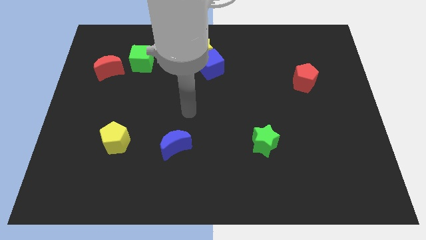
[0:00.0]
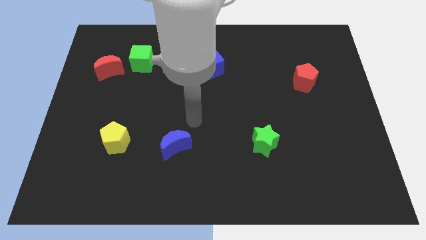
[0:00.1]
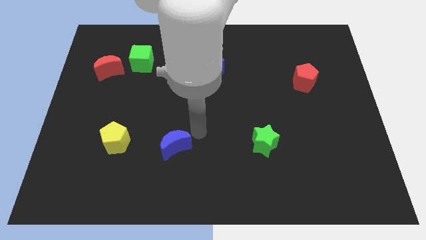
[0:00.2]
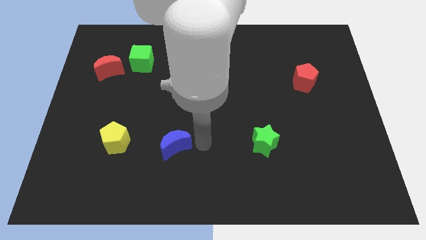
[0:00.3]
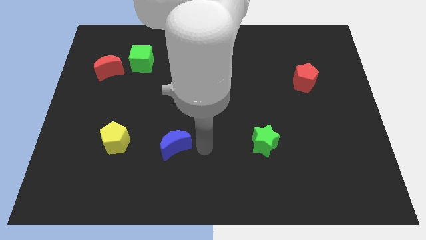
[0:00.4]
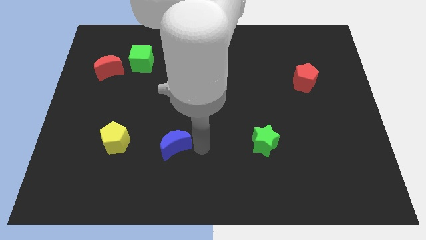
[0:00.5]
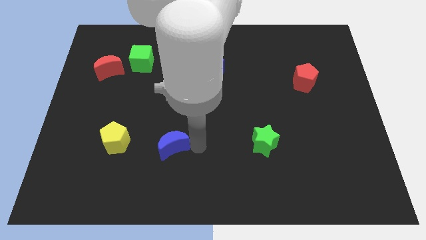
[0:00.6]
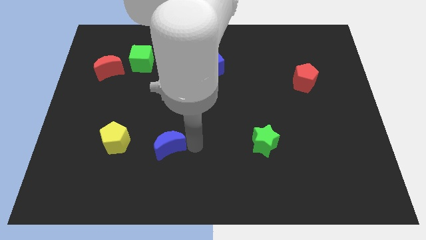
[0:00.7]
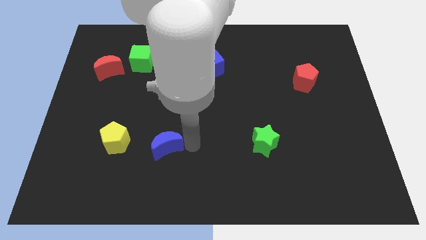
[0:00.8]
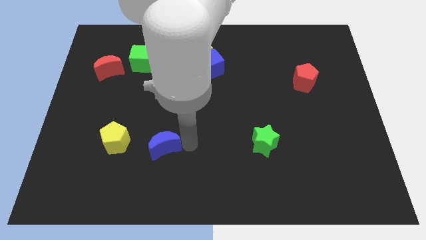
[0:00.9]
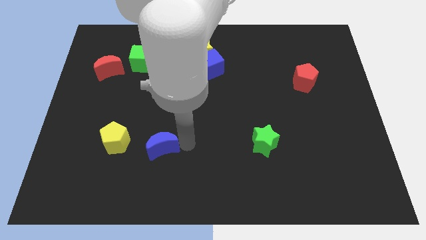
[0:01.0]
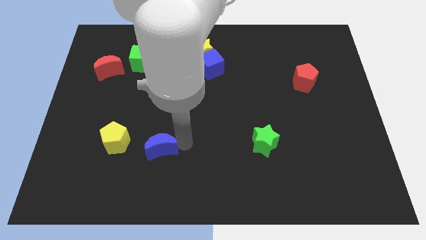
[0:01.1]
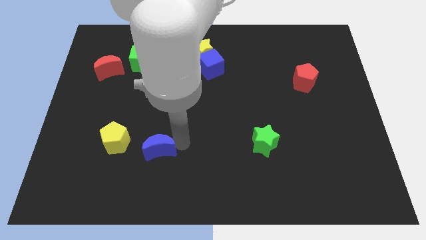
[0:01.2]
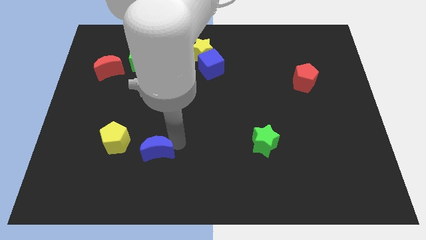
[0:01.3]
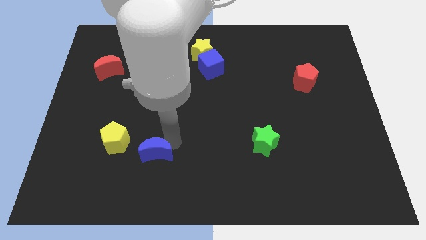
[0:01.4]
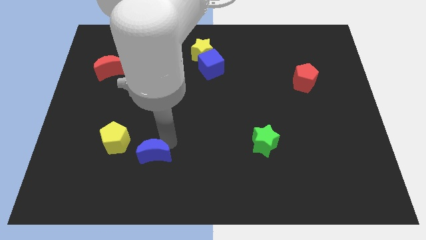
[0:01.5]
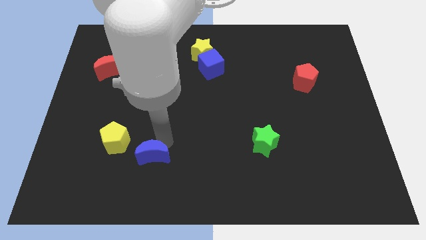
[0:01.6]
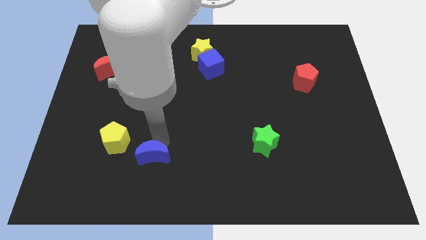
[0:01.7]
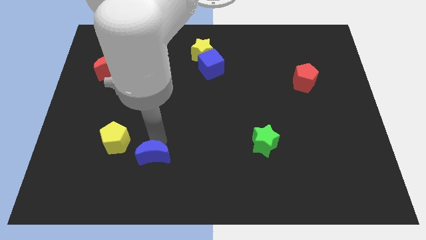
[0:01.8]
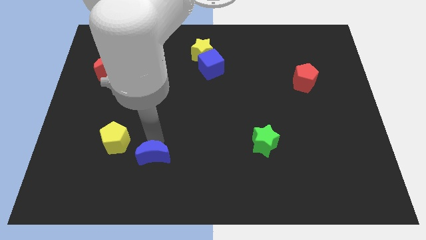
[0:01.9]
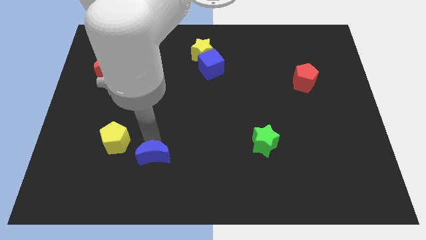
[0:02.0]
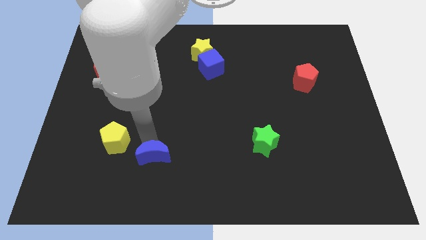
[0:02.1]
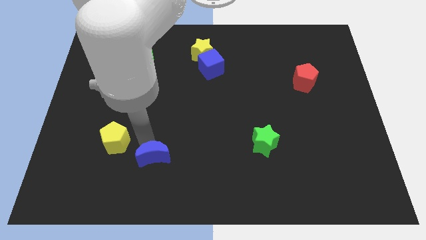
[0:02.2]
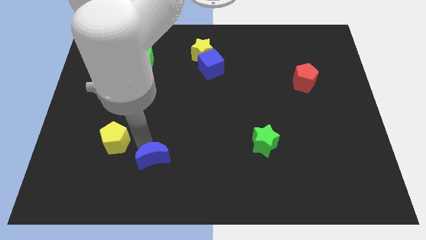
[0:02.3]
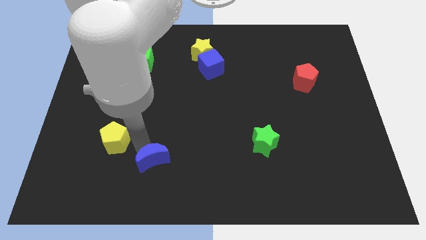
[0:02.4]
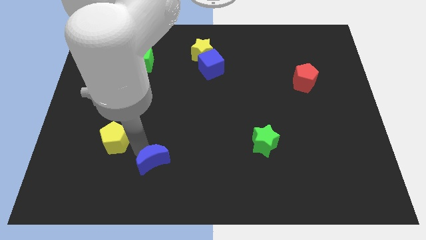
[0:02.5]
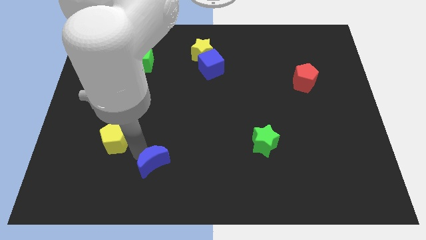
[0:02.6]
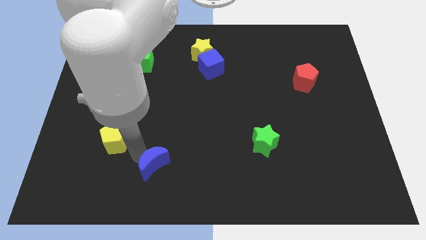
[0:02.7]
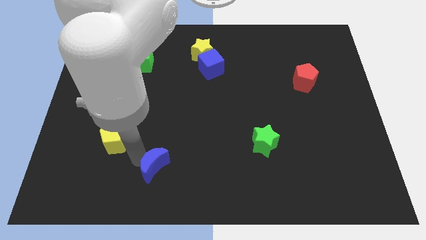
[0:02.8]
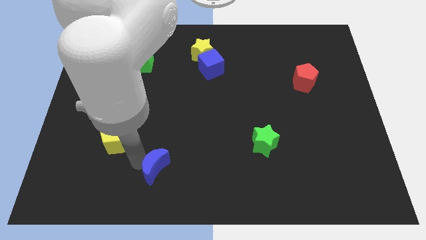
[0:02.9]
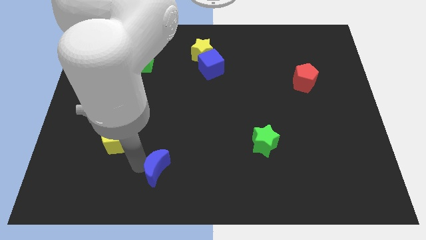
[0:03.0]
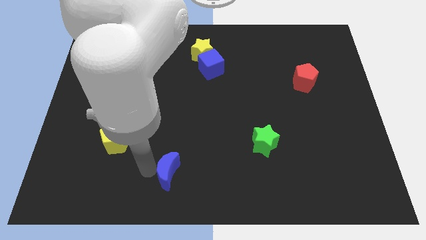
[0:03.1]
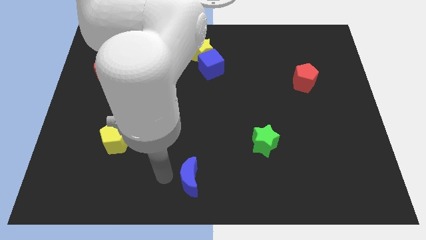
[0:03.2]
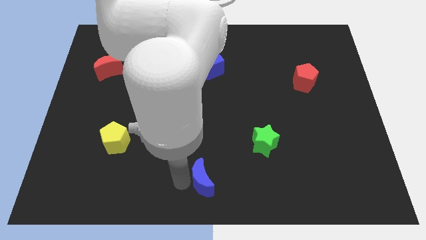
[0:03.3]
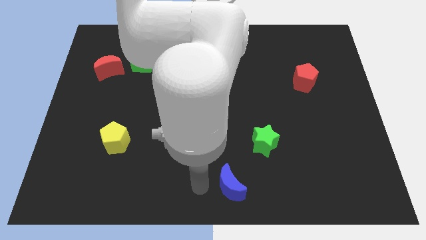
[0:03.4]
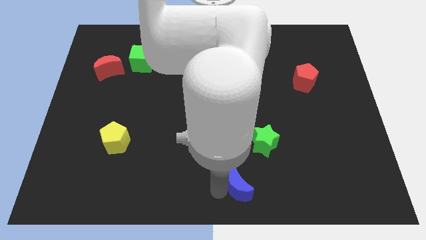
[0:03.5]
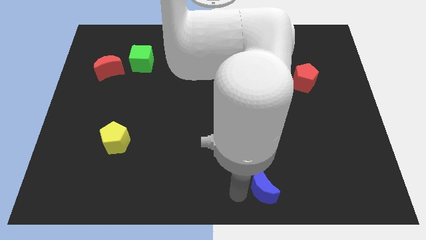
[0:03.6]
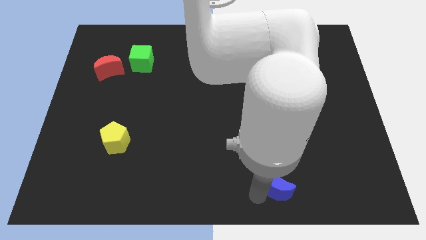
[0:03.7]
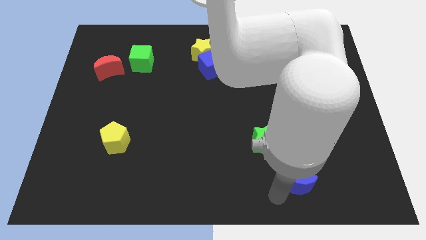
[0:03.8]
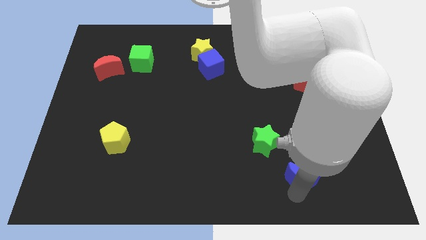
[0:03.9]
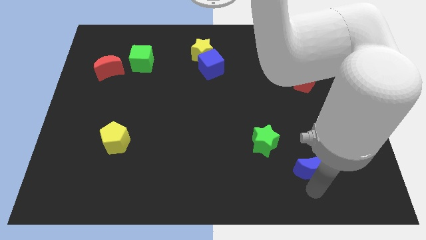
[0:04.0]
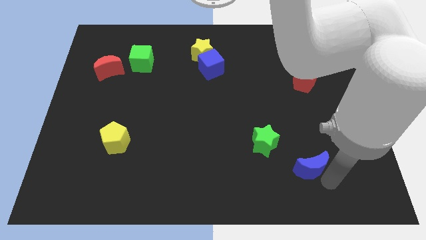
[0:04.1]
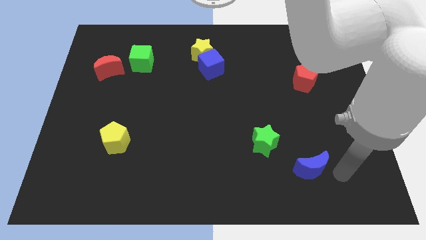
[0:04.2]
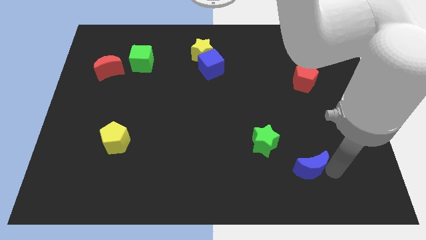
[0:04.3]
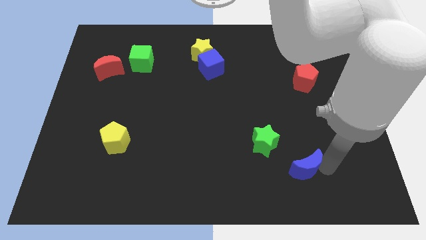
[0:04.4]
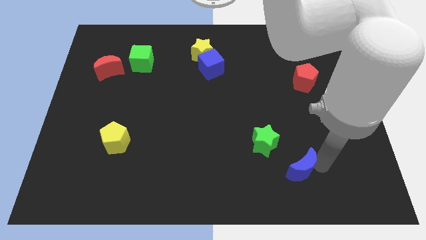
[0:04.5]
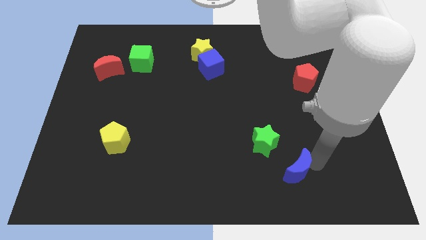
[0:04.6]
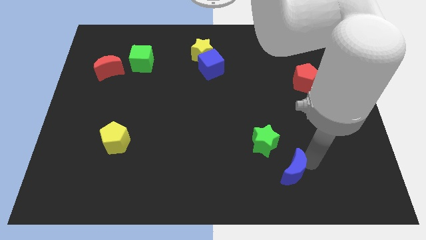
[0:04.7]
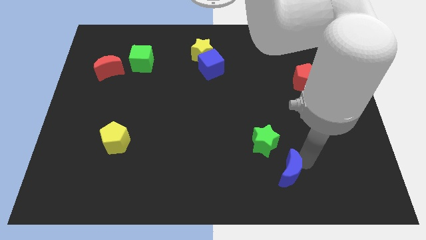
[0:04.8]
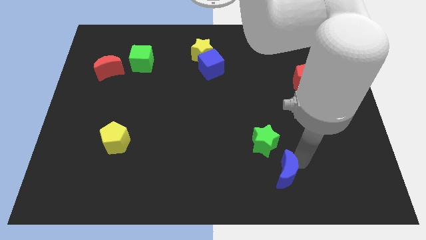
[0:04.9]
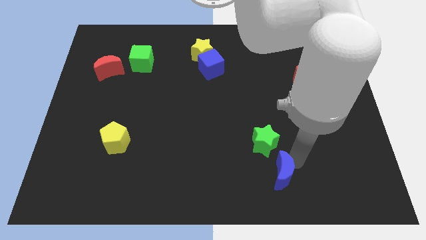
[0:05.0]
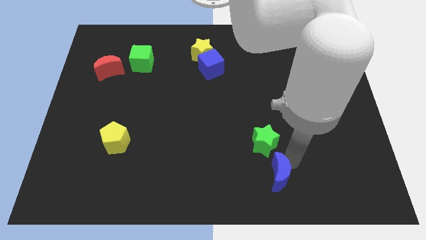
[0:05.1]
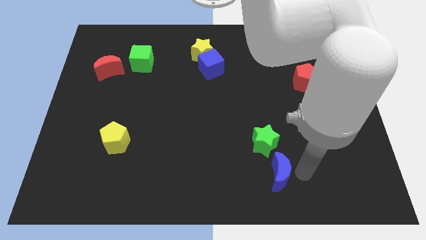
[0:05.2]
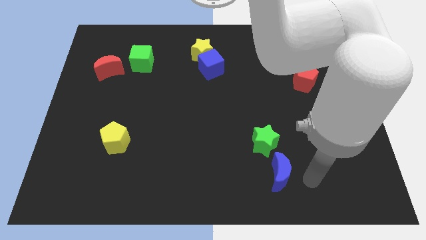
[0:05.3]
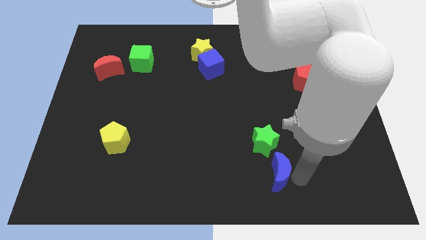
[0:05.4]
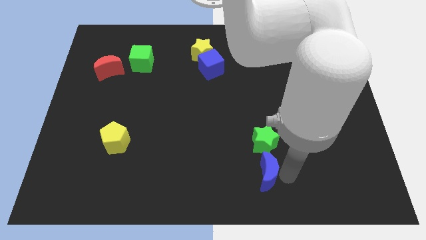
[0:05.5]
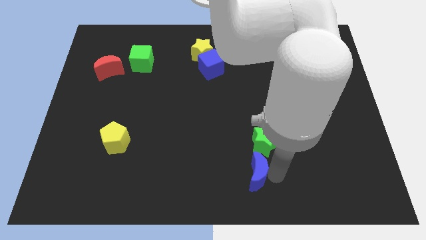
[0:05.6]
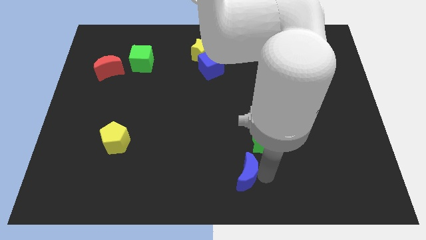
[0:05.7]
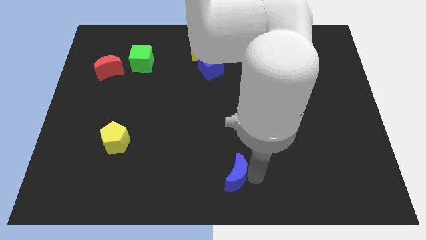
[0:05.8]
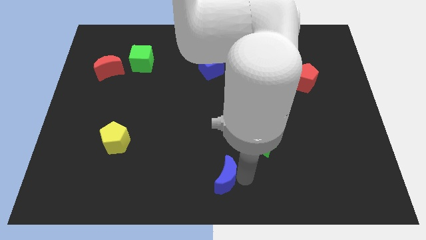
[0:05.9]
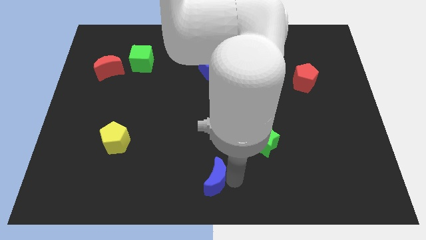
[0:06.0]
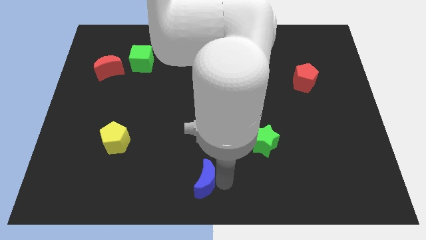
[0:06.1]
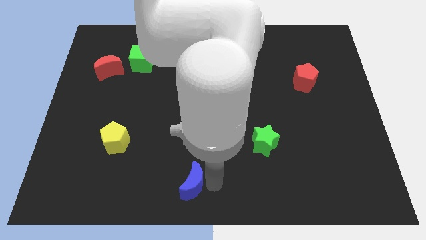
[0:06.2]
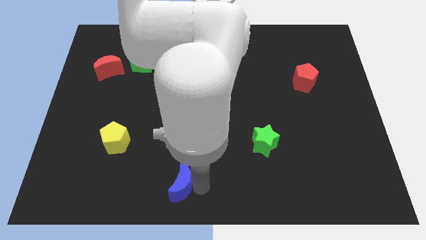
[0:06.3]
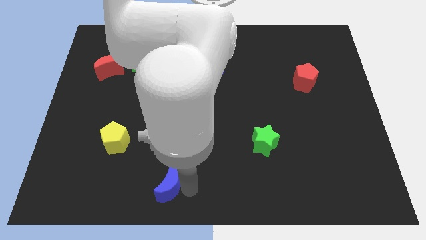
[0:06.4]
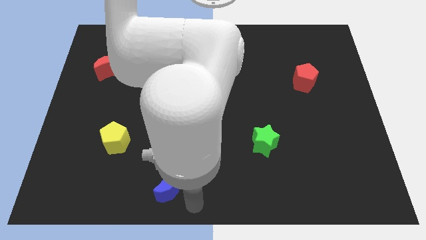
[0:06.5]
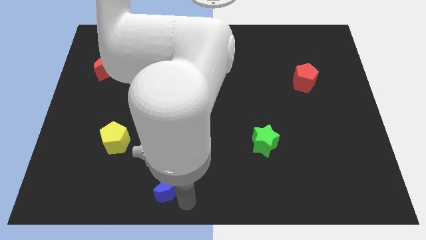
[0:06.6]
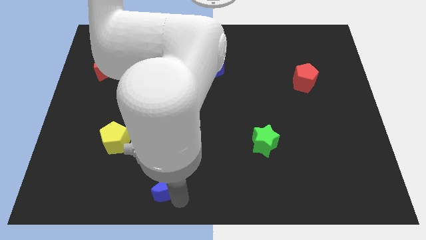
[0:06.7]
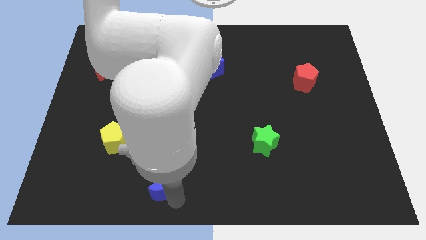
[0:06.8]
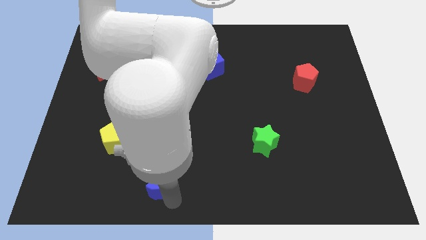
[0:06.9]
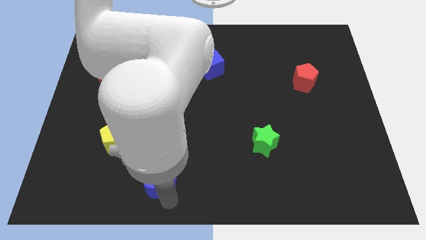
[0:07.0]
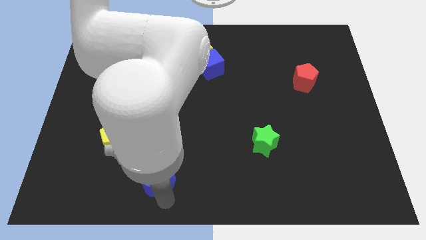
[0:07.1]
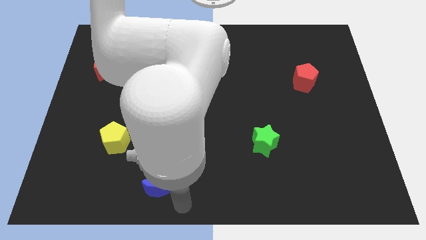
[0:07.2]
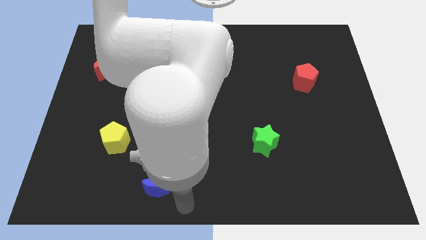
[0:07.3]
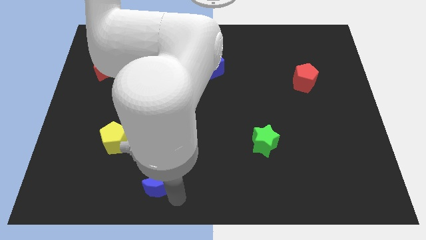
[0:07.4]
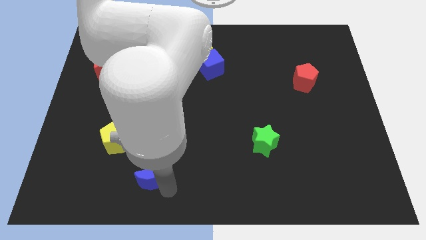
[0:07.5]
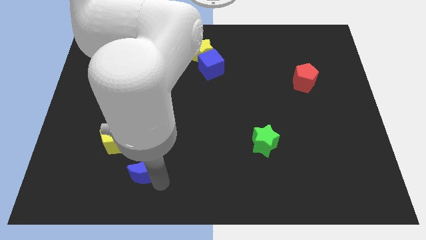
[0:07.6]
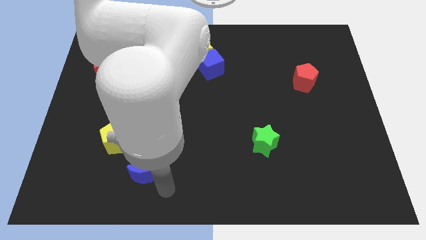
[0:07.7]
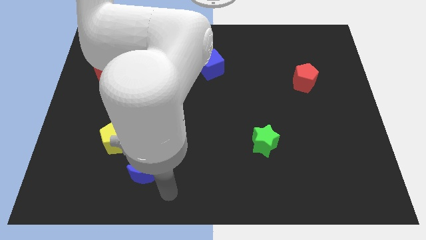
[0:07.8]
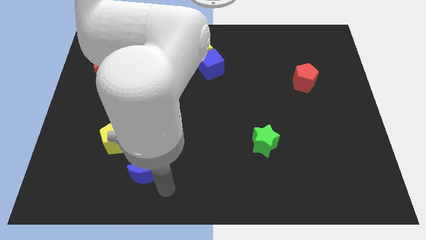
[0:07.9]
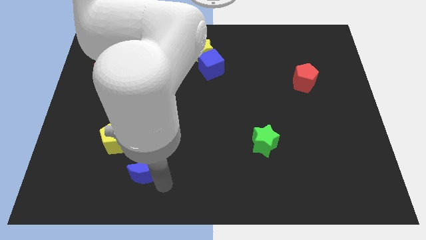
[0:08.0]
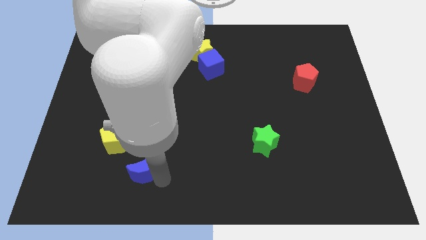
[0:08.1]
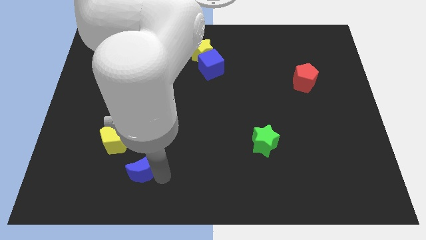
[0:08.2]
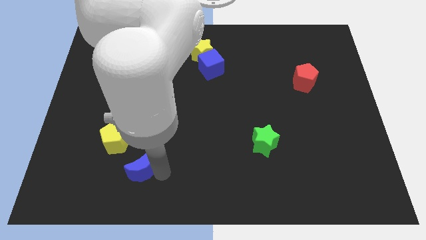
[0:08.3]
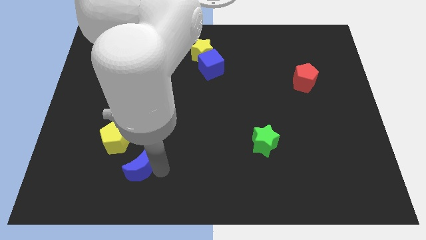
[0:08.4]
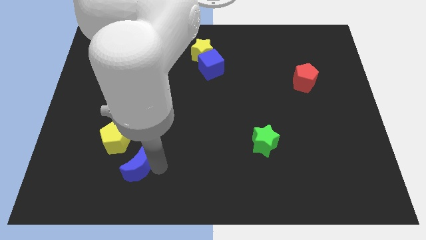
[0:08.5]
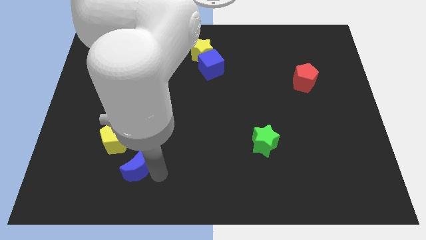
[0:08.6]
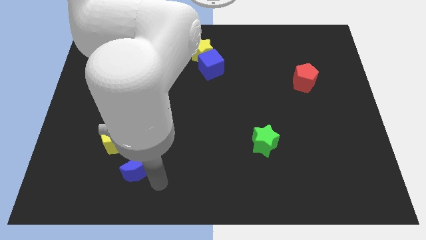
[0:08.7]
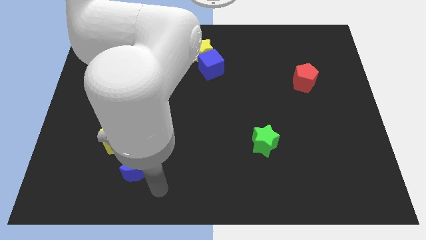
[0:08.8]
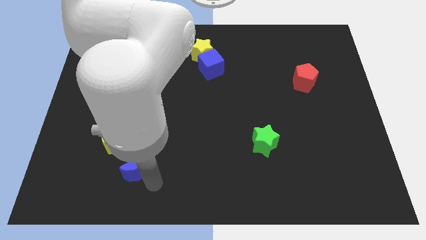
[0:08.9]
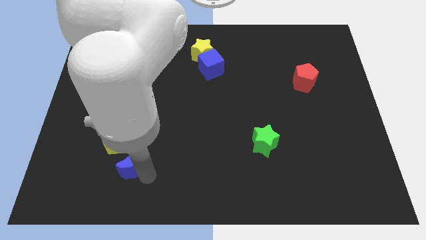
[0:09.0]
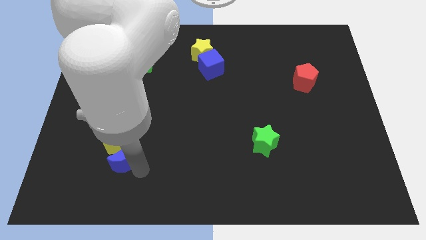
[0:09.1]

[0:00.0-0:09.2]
push the blue moon to the yellow pentagon
